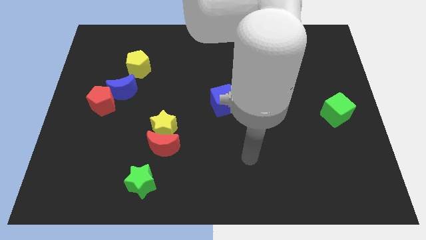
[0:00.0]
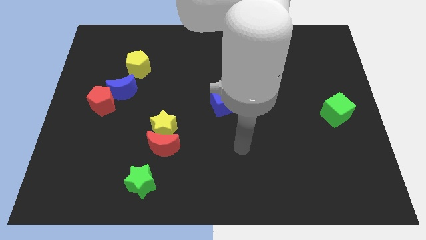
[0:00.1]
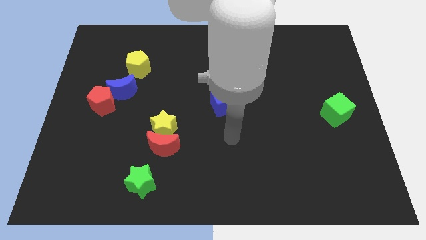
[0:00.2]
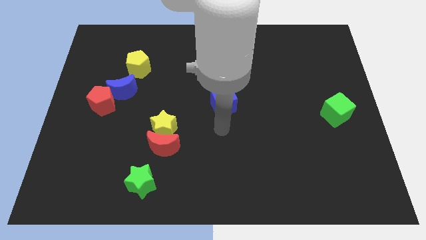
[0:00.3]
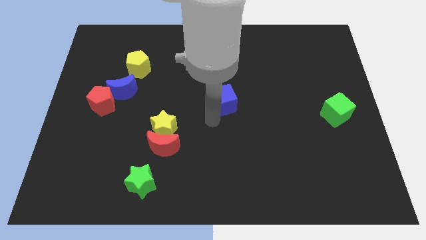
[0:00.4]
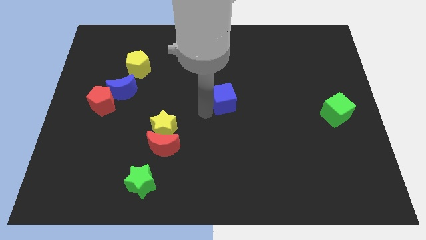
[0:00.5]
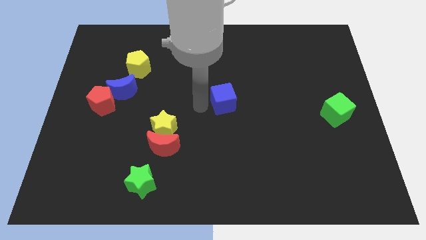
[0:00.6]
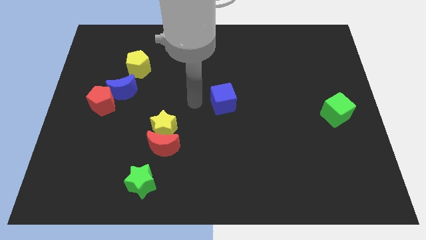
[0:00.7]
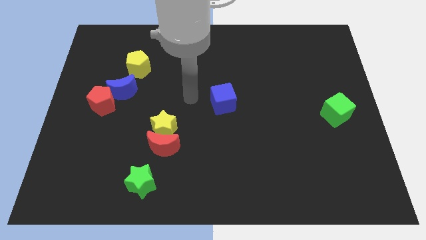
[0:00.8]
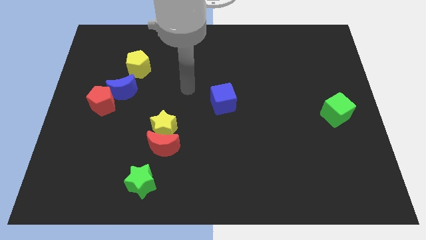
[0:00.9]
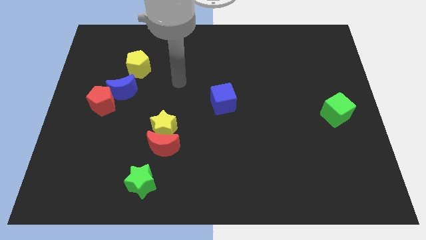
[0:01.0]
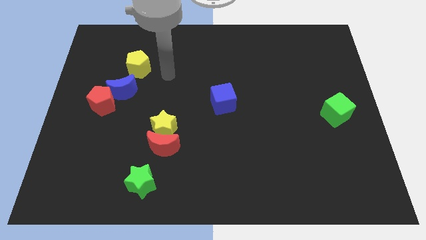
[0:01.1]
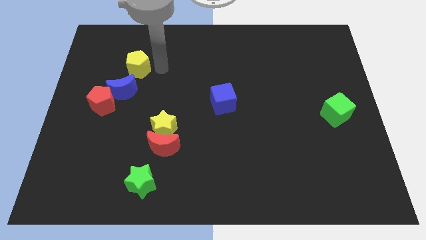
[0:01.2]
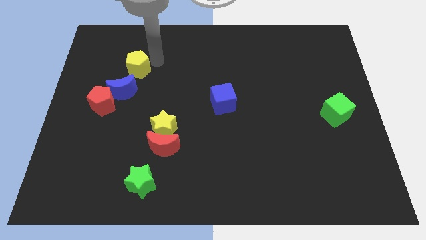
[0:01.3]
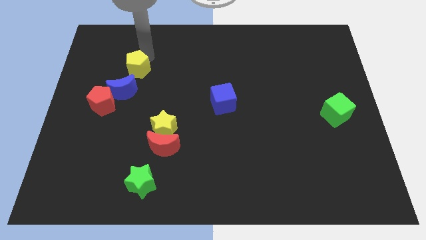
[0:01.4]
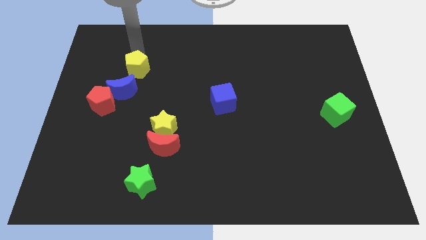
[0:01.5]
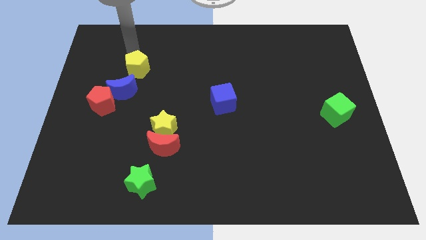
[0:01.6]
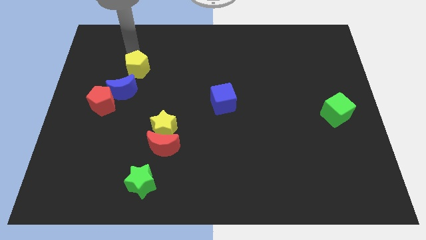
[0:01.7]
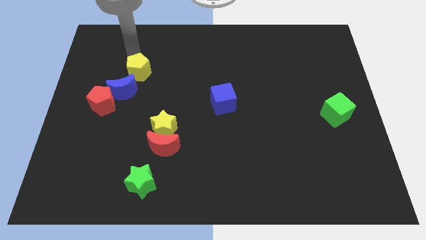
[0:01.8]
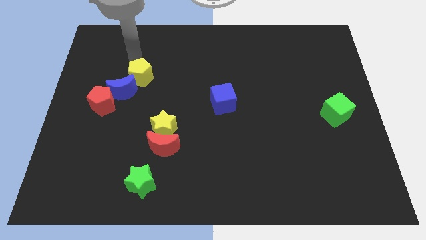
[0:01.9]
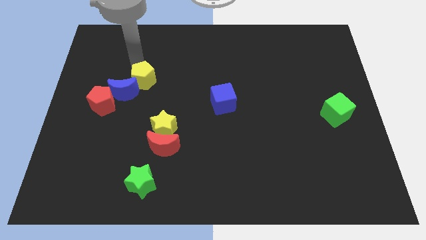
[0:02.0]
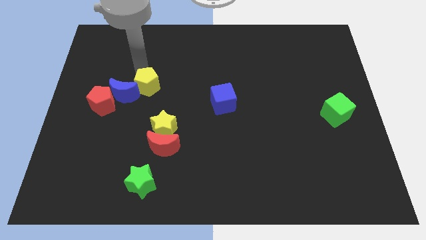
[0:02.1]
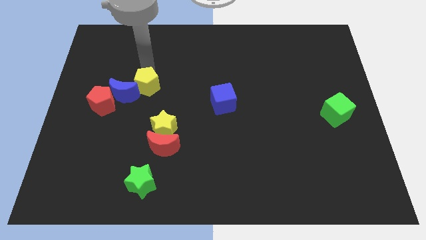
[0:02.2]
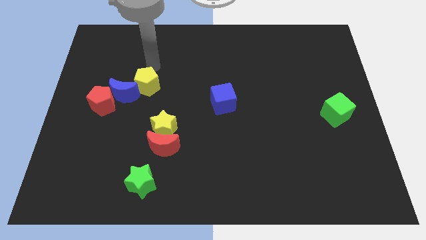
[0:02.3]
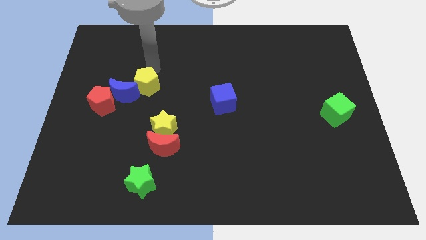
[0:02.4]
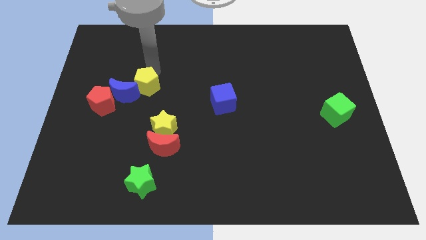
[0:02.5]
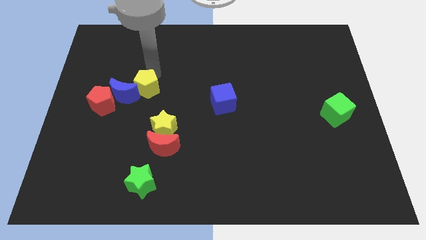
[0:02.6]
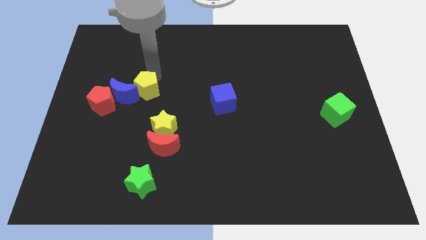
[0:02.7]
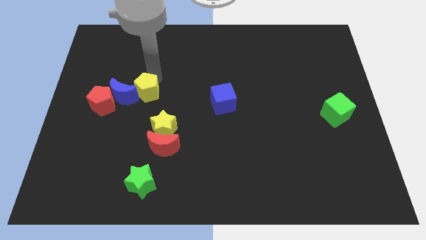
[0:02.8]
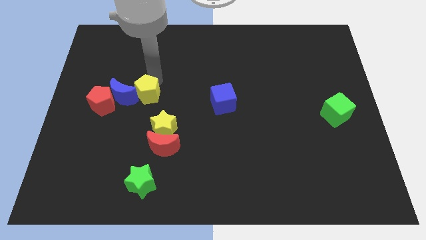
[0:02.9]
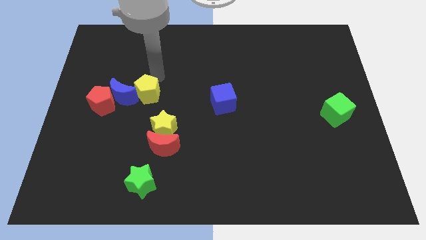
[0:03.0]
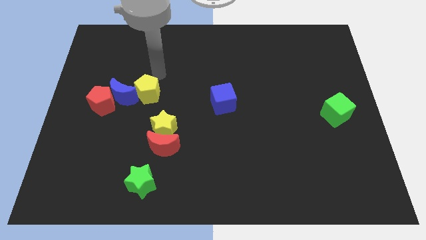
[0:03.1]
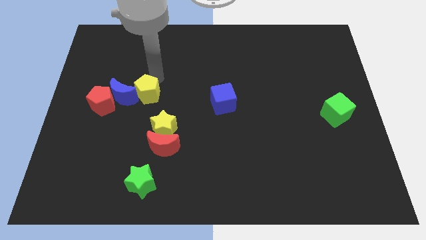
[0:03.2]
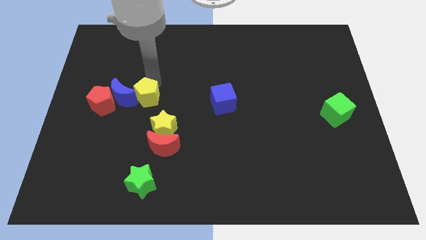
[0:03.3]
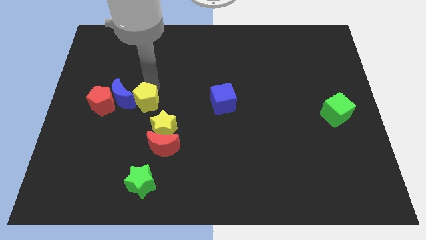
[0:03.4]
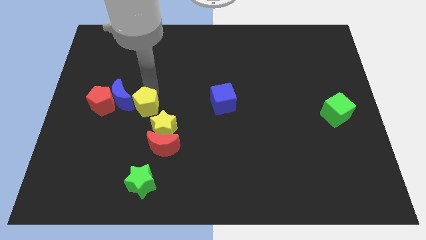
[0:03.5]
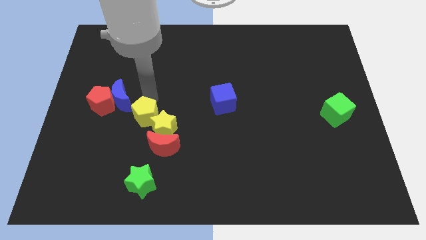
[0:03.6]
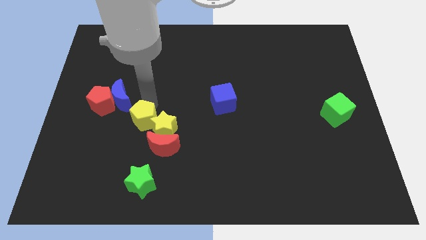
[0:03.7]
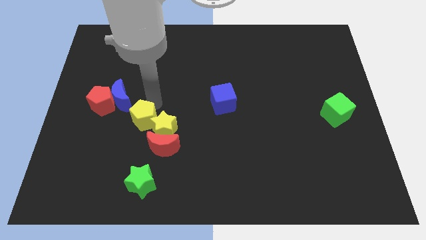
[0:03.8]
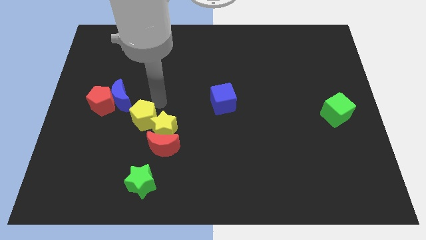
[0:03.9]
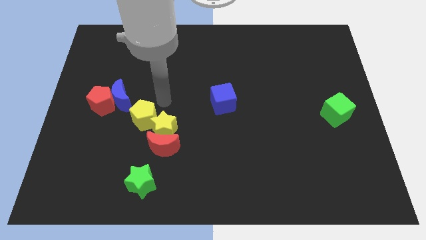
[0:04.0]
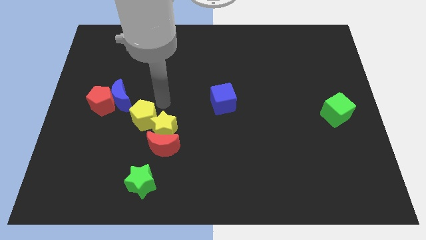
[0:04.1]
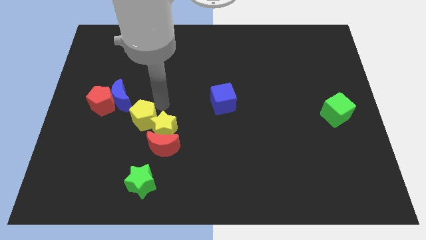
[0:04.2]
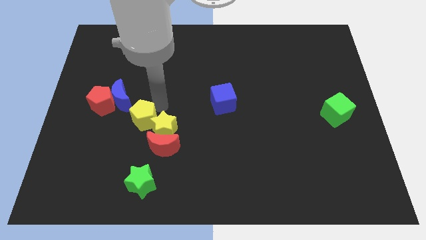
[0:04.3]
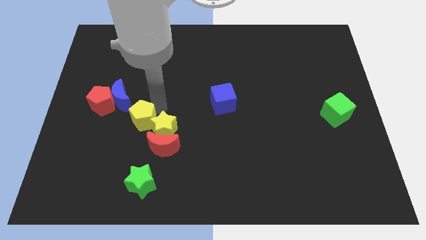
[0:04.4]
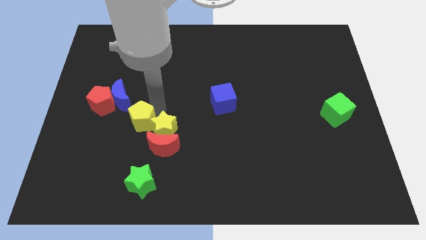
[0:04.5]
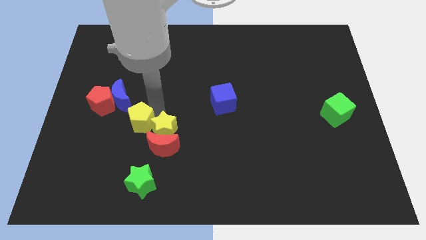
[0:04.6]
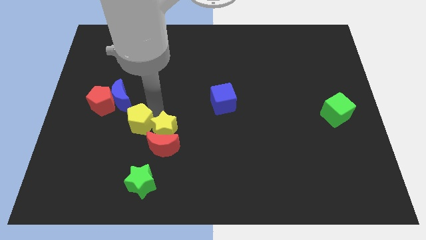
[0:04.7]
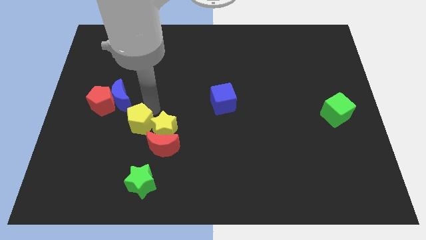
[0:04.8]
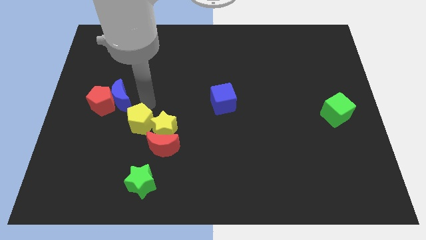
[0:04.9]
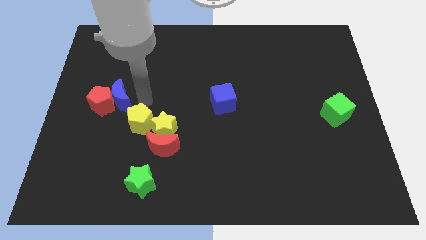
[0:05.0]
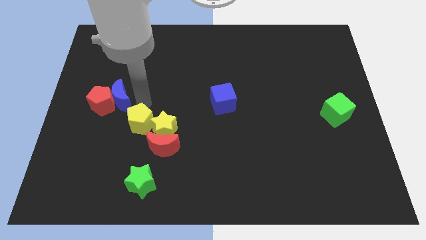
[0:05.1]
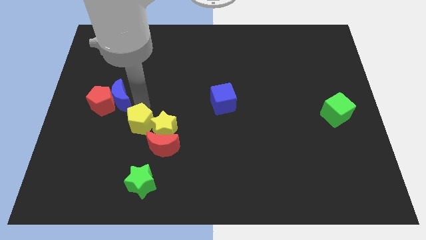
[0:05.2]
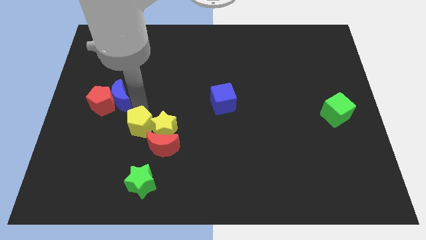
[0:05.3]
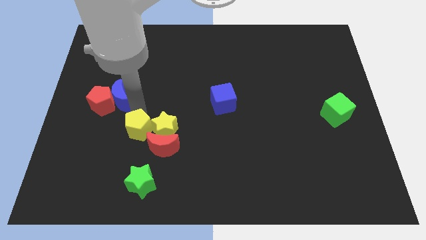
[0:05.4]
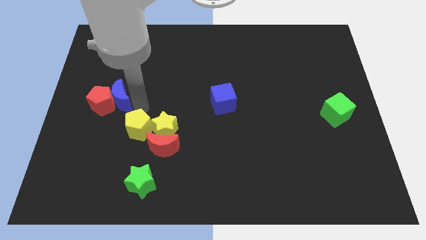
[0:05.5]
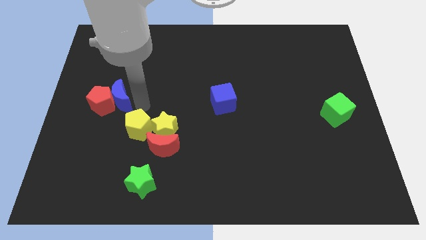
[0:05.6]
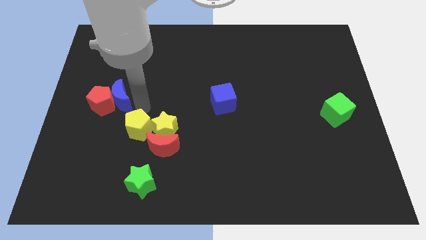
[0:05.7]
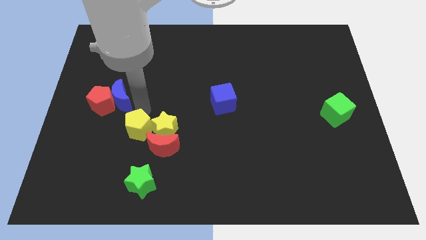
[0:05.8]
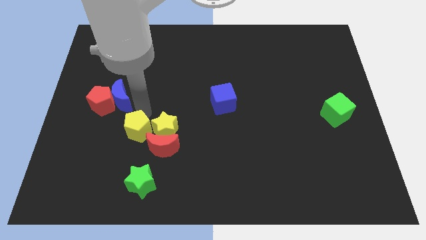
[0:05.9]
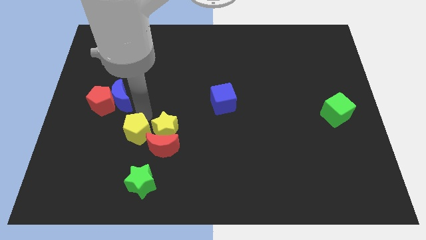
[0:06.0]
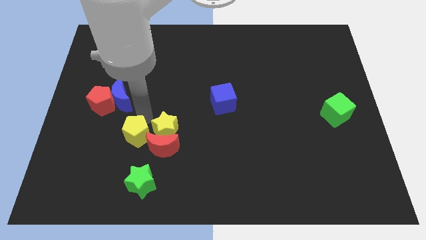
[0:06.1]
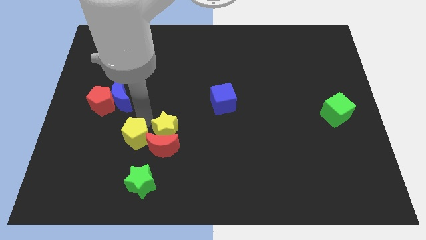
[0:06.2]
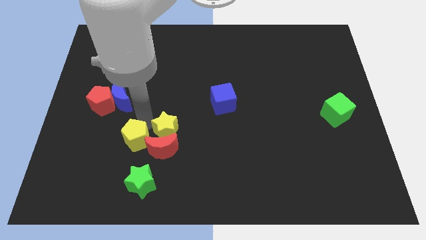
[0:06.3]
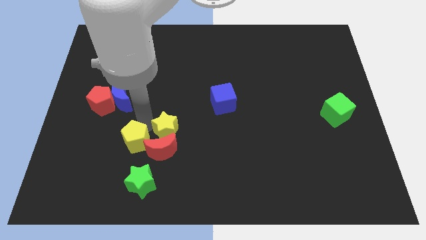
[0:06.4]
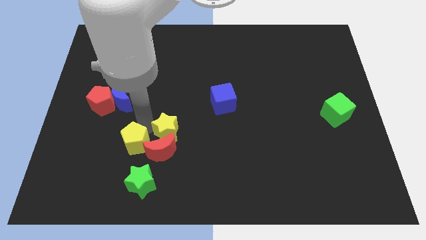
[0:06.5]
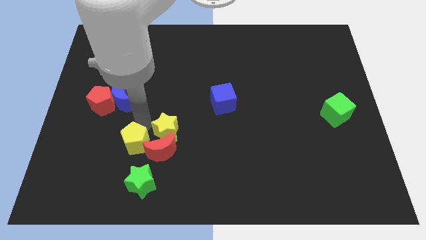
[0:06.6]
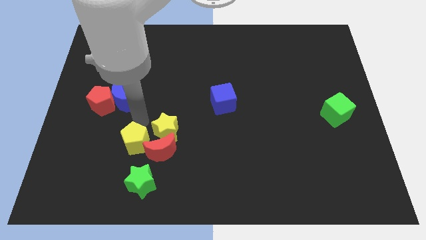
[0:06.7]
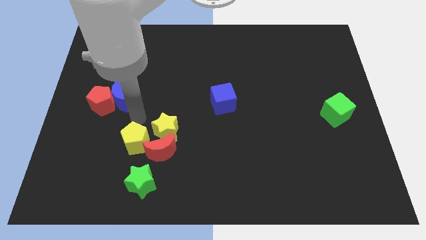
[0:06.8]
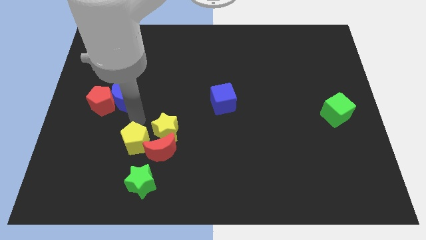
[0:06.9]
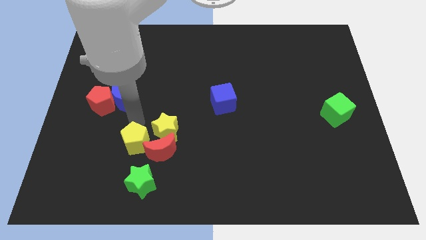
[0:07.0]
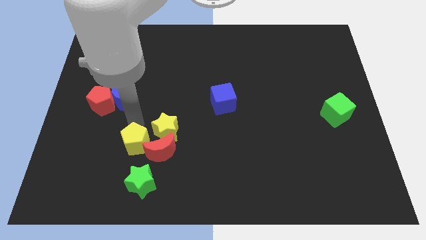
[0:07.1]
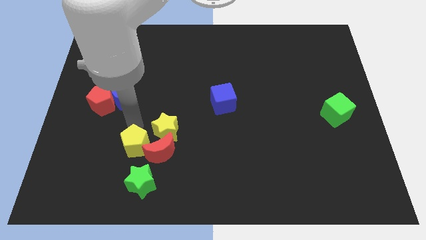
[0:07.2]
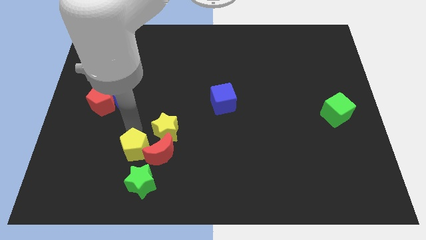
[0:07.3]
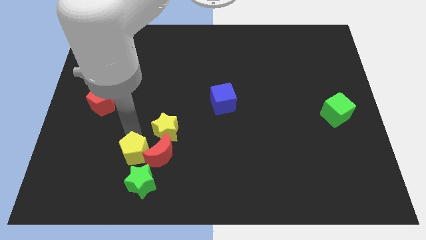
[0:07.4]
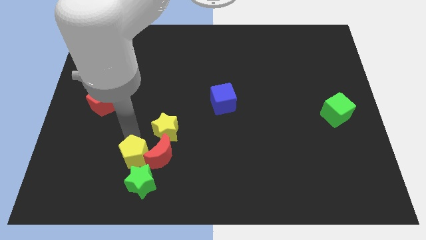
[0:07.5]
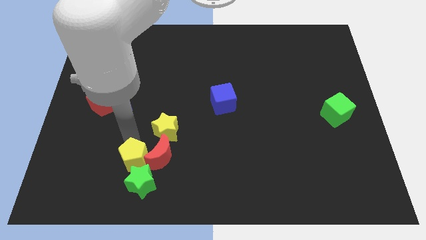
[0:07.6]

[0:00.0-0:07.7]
put the yellow pentagon towards the green star
